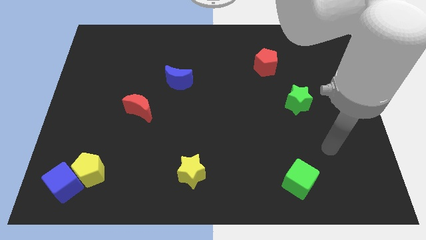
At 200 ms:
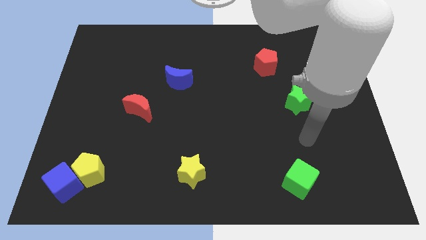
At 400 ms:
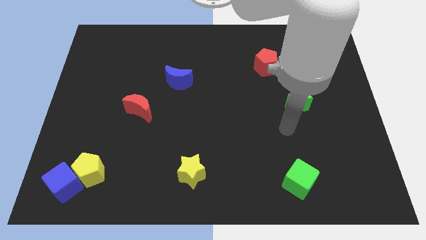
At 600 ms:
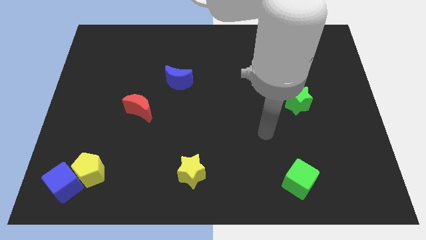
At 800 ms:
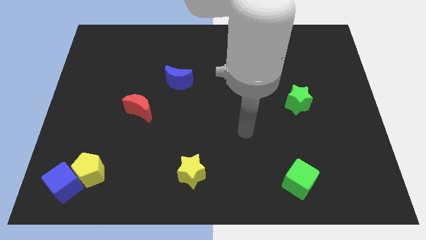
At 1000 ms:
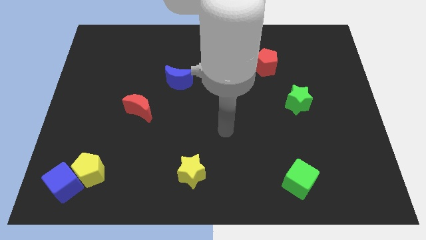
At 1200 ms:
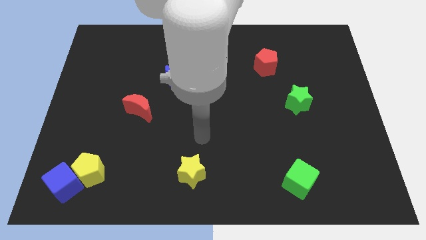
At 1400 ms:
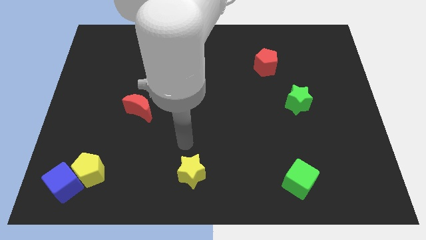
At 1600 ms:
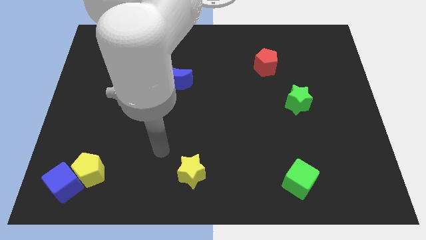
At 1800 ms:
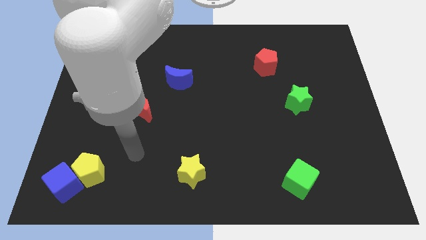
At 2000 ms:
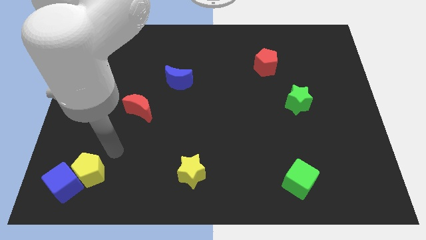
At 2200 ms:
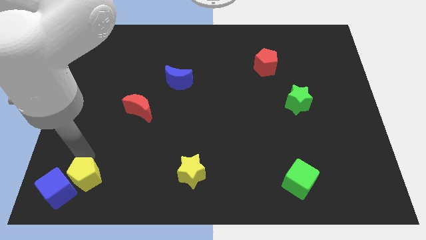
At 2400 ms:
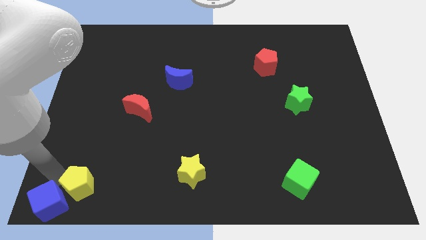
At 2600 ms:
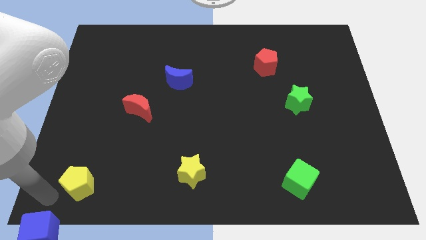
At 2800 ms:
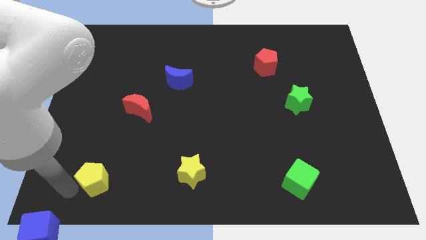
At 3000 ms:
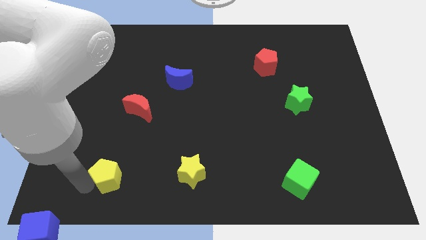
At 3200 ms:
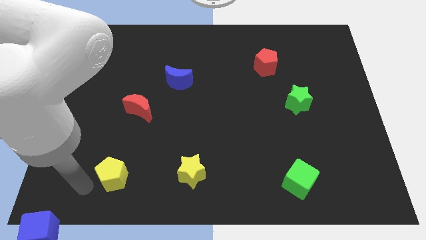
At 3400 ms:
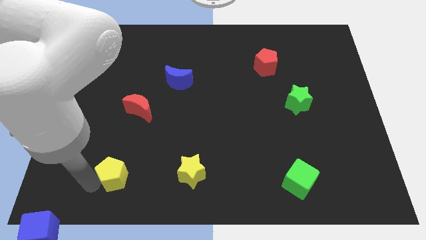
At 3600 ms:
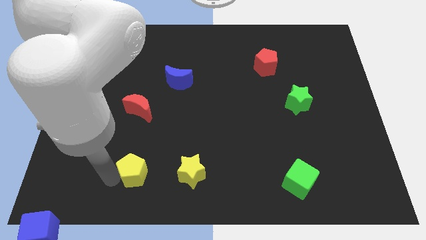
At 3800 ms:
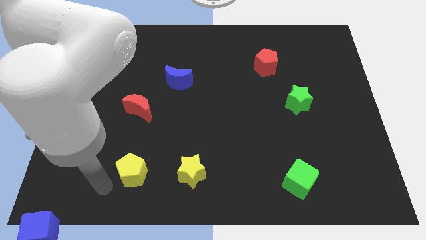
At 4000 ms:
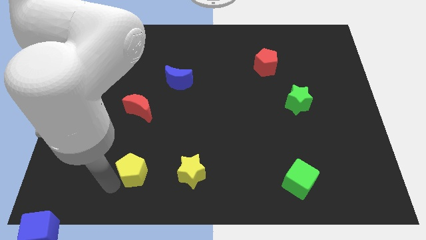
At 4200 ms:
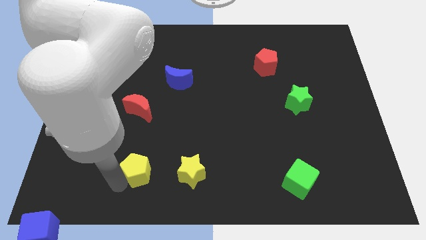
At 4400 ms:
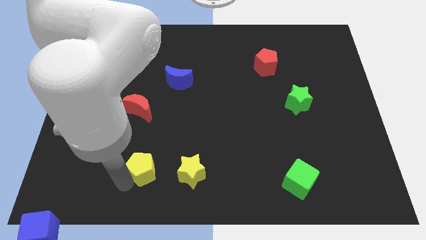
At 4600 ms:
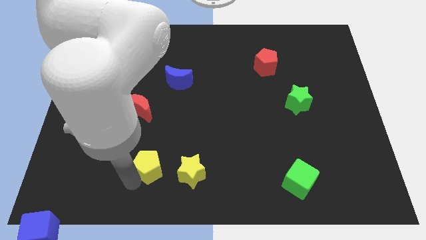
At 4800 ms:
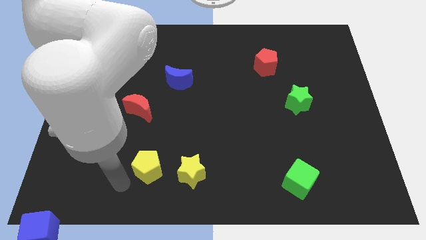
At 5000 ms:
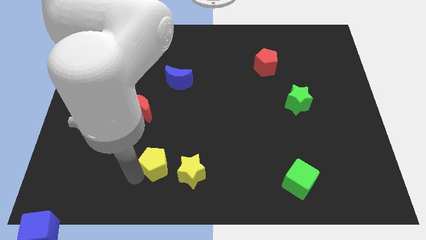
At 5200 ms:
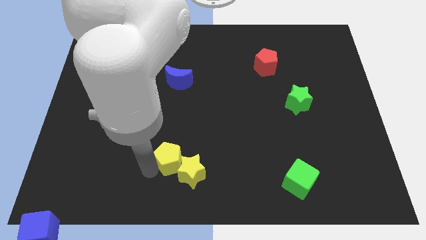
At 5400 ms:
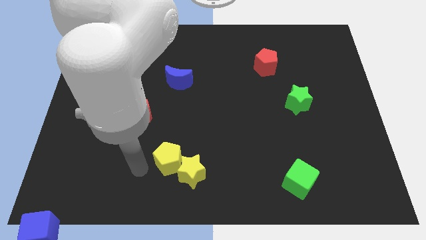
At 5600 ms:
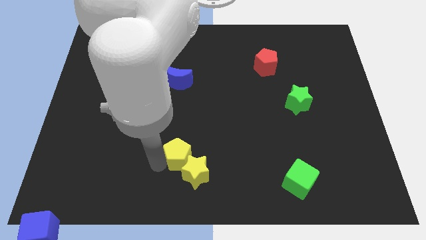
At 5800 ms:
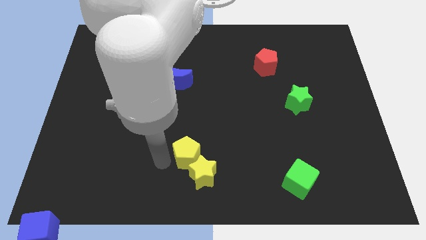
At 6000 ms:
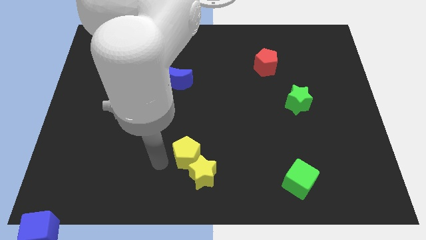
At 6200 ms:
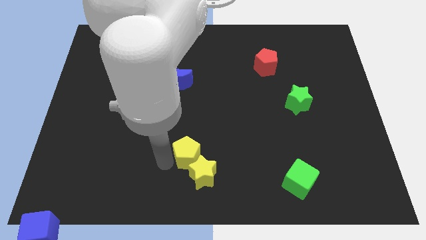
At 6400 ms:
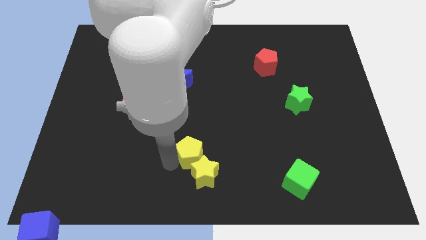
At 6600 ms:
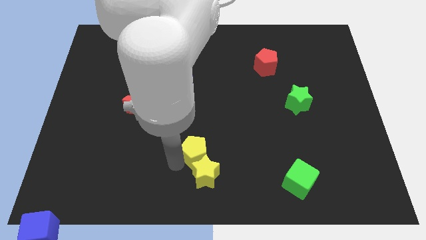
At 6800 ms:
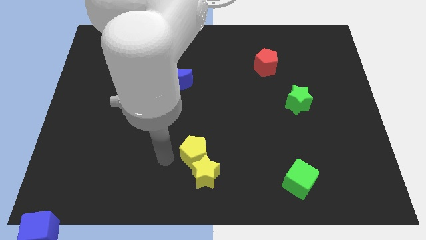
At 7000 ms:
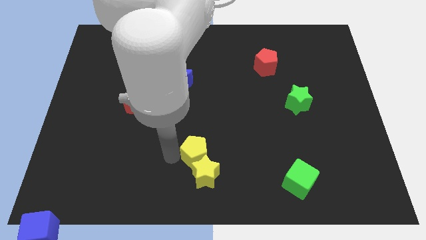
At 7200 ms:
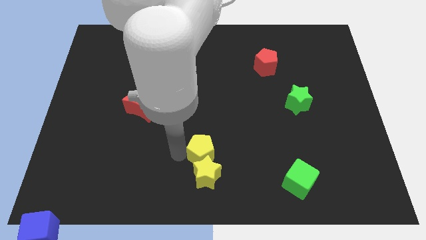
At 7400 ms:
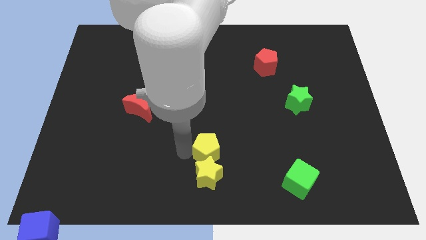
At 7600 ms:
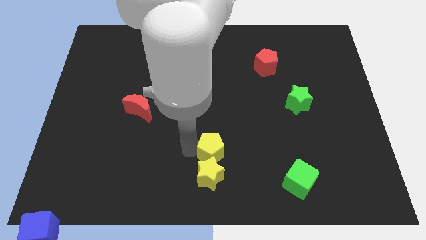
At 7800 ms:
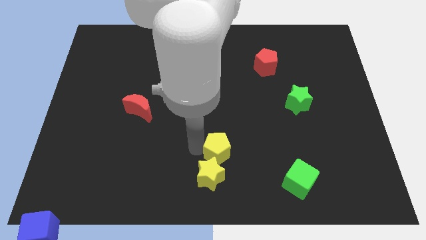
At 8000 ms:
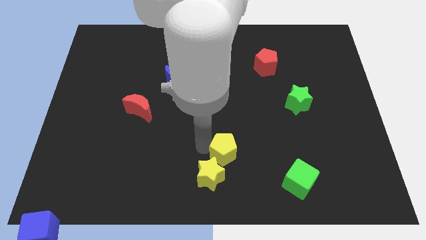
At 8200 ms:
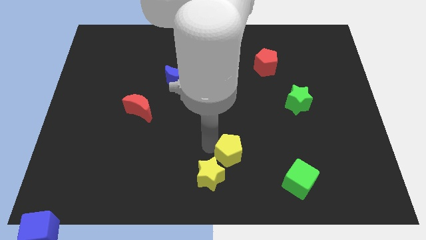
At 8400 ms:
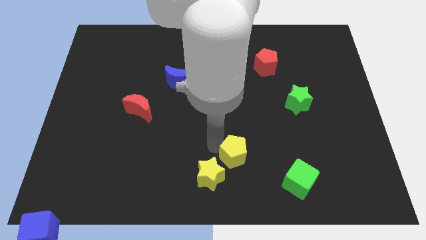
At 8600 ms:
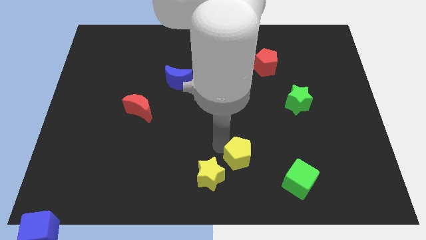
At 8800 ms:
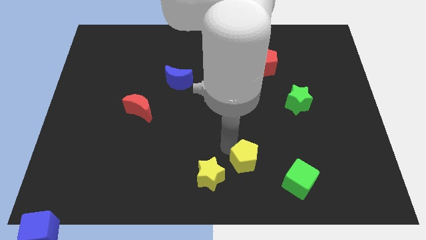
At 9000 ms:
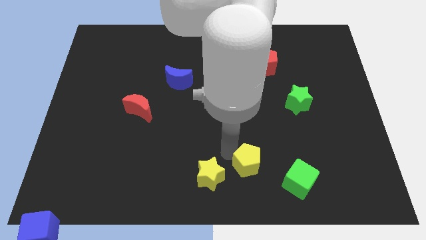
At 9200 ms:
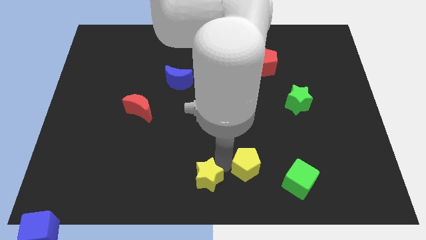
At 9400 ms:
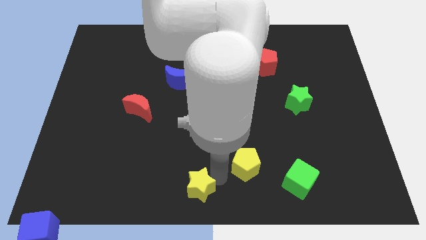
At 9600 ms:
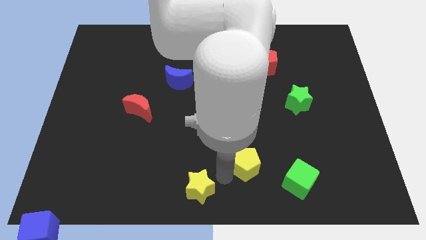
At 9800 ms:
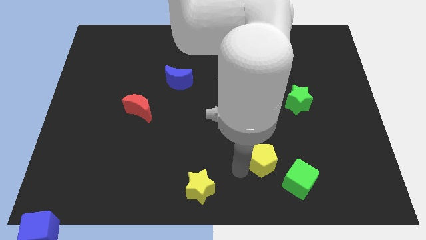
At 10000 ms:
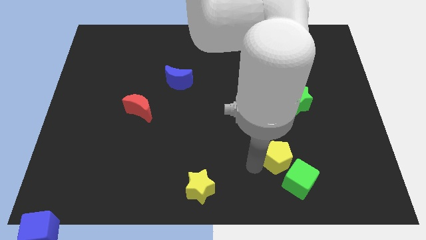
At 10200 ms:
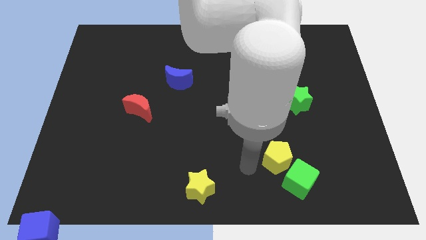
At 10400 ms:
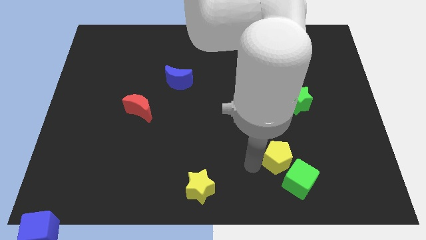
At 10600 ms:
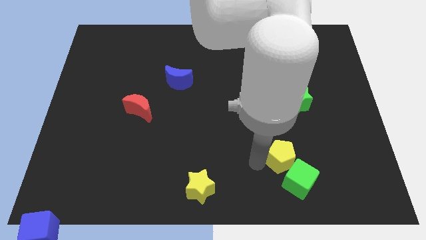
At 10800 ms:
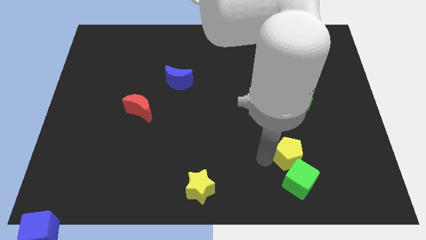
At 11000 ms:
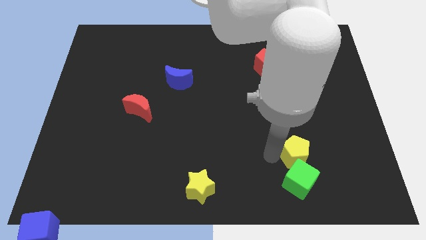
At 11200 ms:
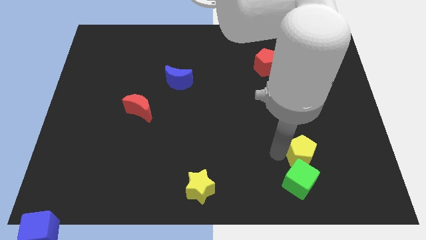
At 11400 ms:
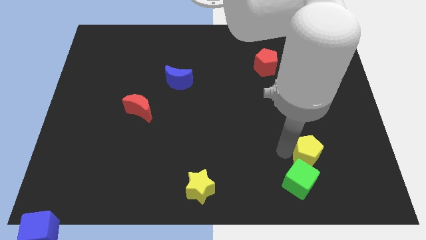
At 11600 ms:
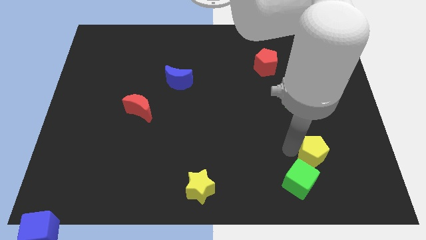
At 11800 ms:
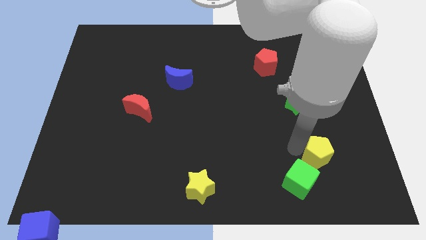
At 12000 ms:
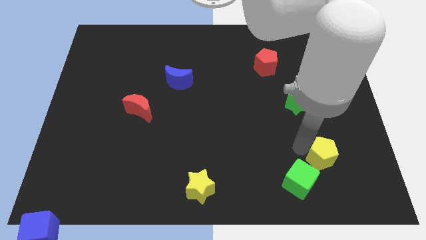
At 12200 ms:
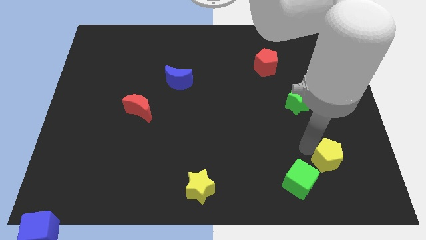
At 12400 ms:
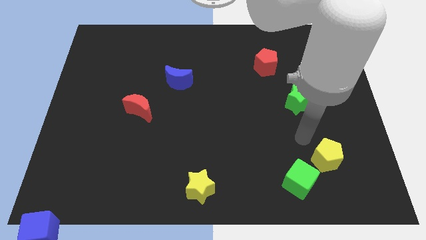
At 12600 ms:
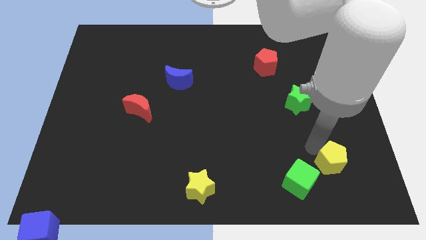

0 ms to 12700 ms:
move the yellow pentagon right of the green cube

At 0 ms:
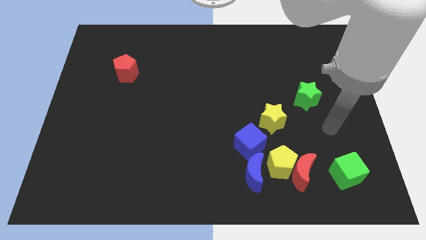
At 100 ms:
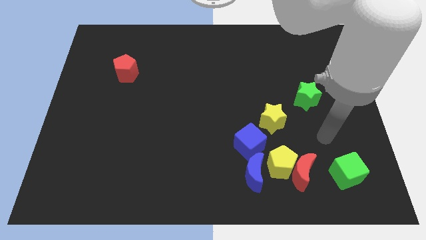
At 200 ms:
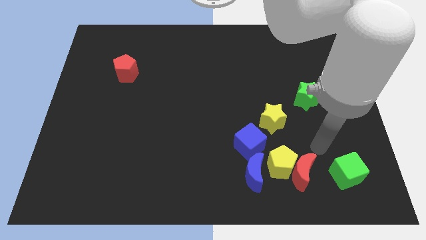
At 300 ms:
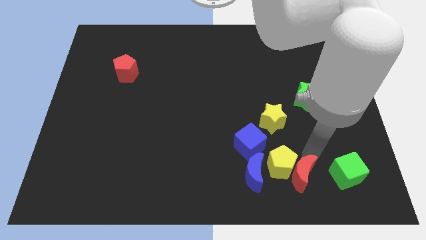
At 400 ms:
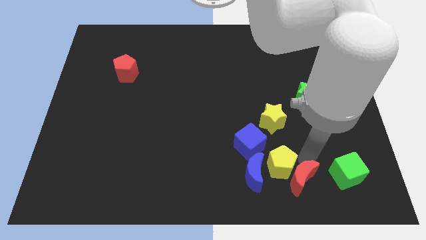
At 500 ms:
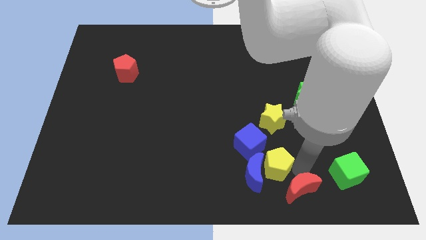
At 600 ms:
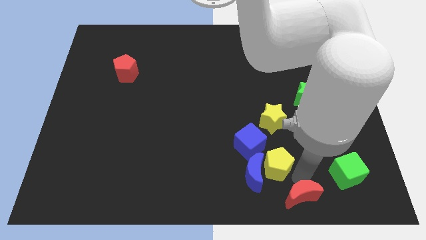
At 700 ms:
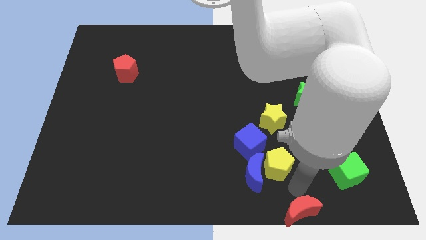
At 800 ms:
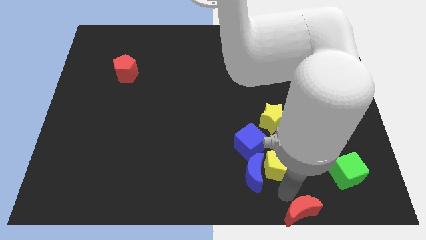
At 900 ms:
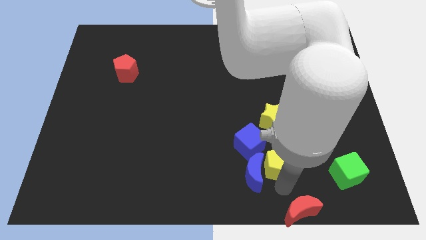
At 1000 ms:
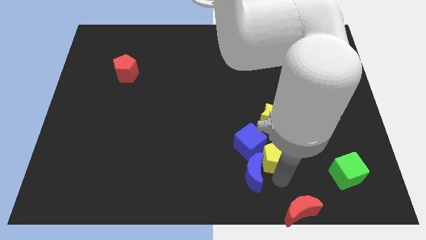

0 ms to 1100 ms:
move the yellow pentagon above the blue moon
